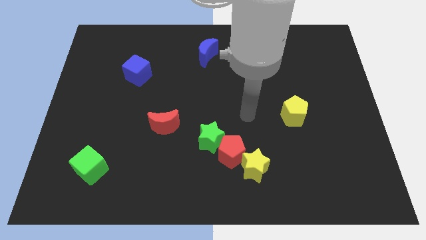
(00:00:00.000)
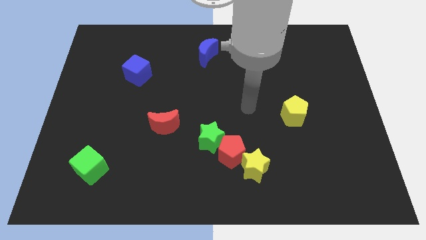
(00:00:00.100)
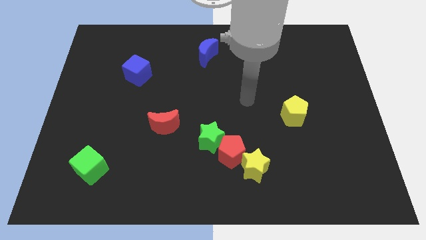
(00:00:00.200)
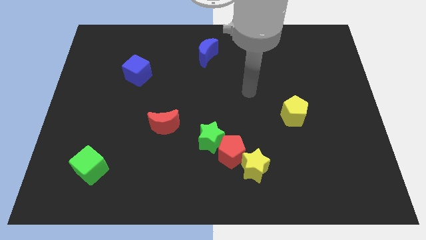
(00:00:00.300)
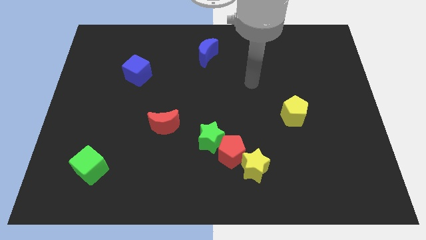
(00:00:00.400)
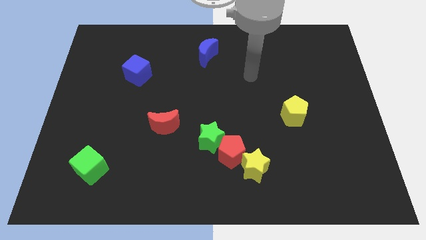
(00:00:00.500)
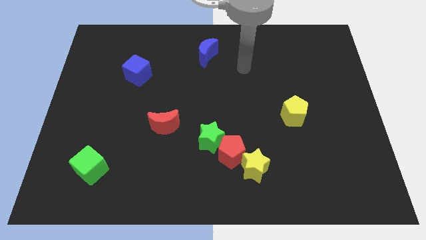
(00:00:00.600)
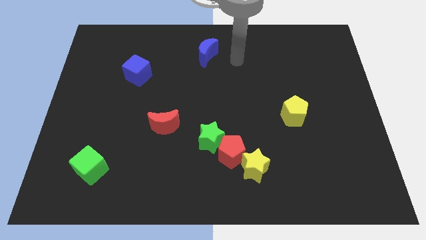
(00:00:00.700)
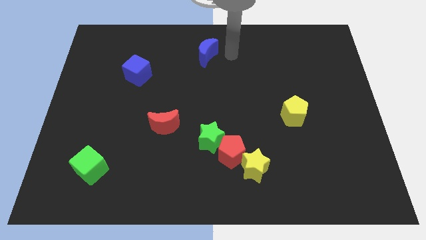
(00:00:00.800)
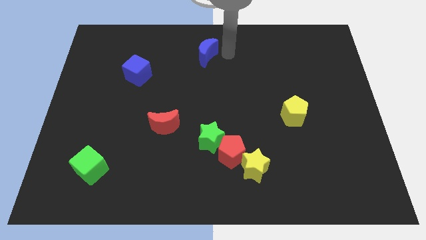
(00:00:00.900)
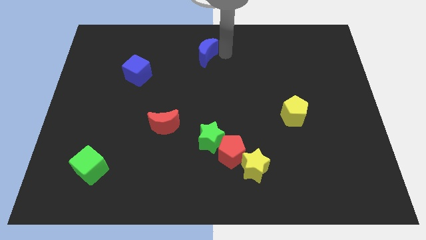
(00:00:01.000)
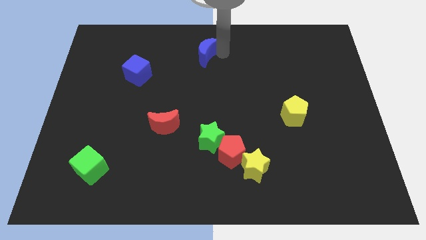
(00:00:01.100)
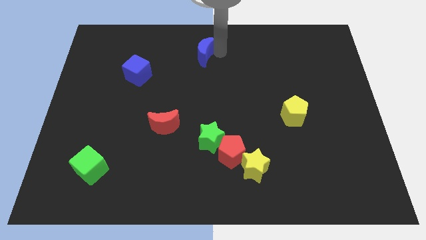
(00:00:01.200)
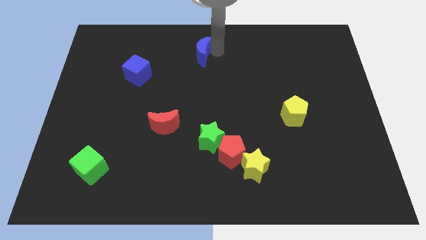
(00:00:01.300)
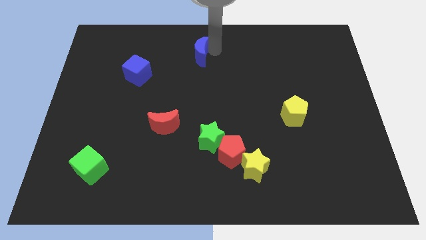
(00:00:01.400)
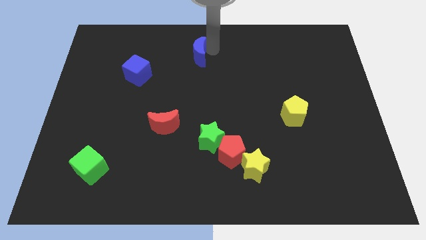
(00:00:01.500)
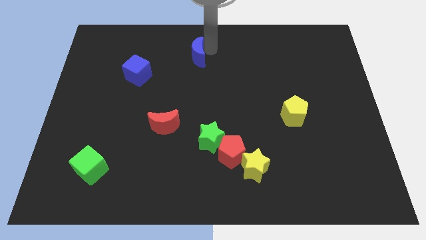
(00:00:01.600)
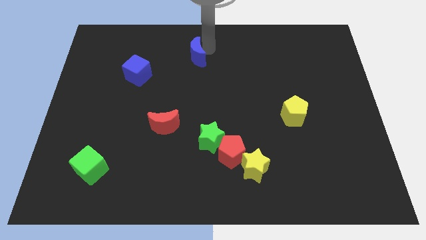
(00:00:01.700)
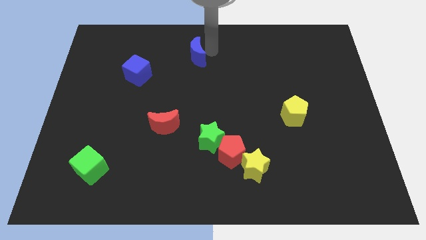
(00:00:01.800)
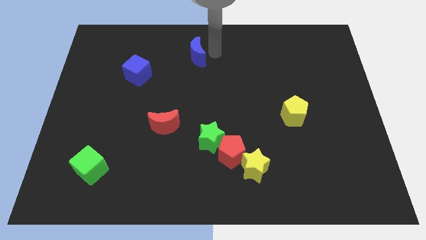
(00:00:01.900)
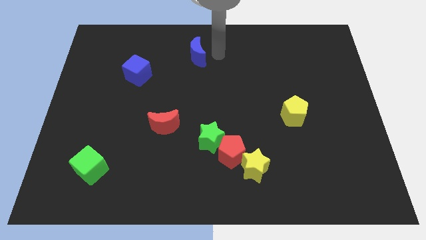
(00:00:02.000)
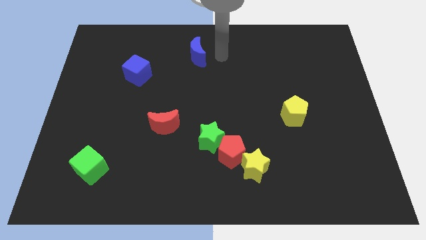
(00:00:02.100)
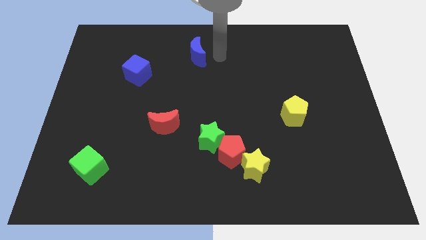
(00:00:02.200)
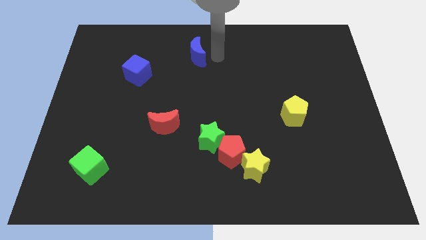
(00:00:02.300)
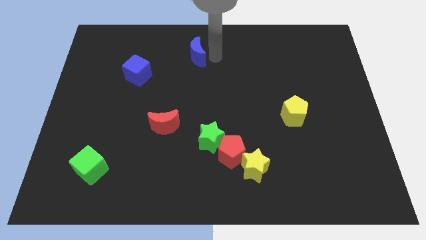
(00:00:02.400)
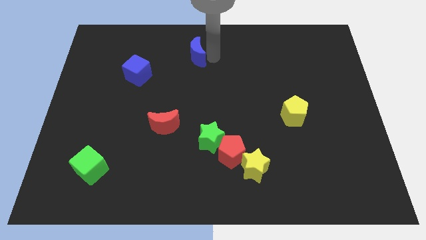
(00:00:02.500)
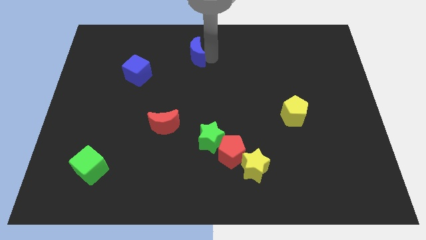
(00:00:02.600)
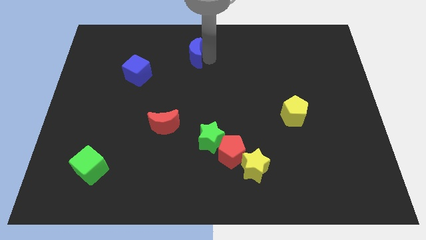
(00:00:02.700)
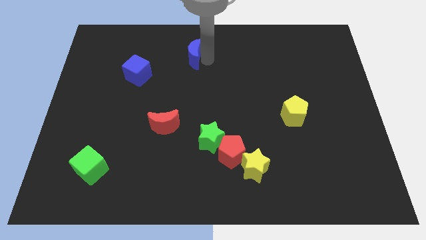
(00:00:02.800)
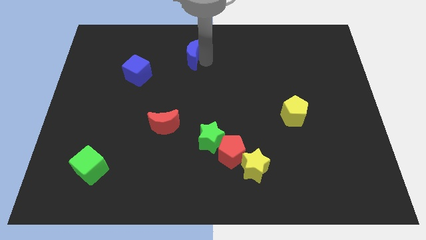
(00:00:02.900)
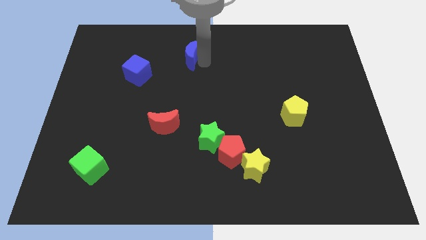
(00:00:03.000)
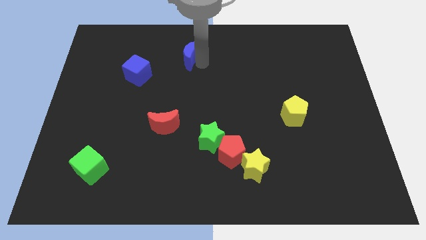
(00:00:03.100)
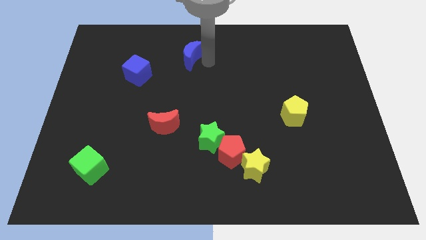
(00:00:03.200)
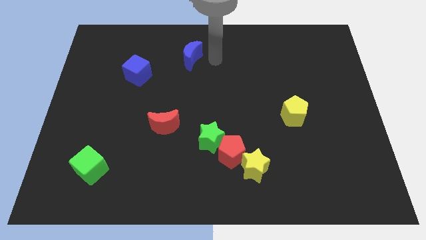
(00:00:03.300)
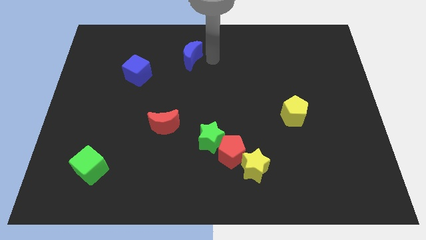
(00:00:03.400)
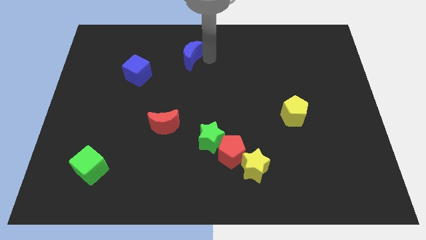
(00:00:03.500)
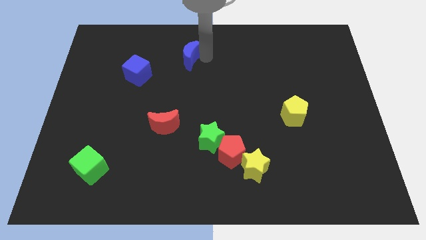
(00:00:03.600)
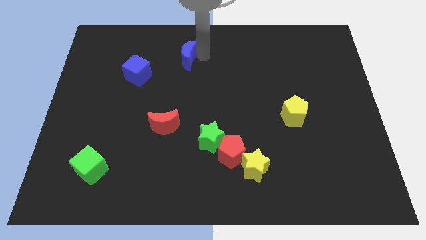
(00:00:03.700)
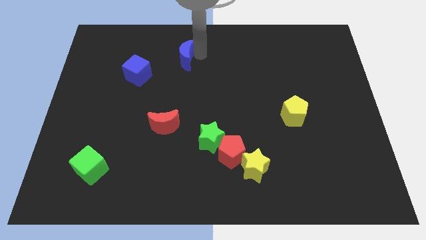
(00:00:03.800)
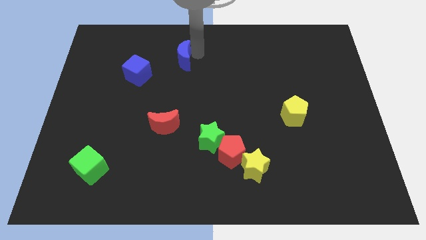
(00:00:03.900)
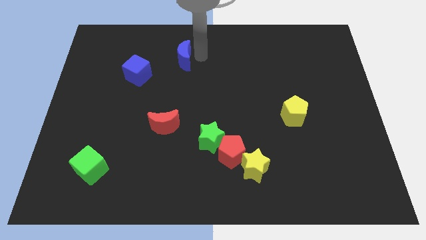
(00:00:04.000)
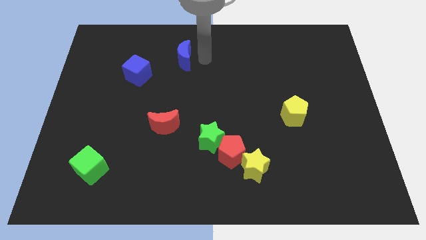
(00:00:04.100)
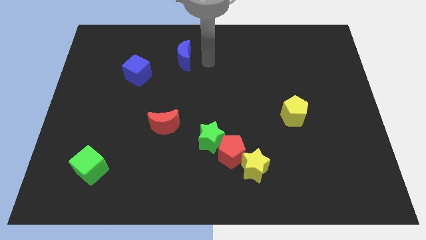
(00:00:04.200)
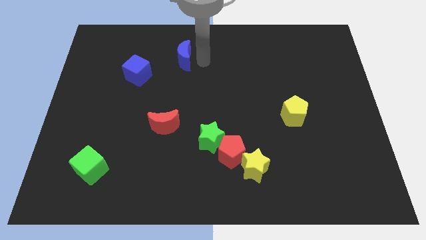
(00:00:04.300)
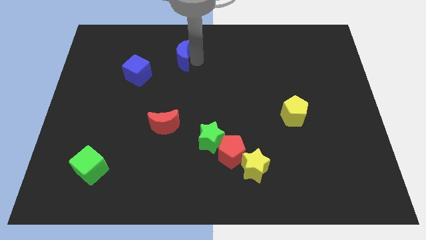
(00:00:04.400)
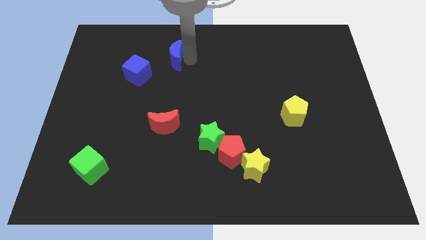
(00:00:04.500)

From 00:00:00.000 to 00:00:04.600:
push the blue moon a bit to the left

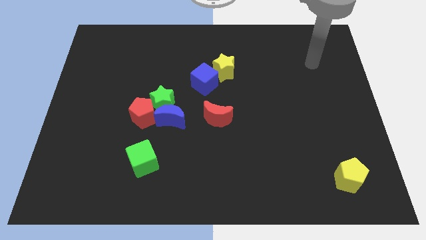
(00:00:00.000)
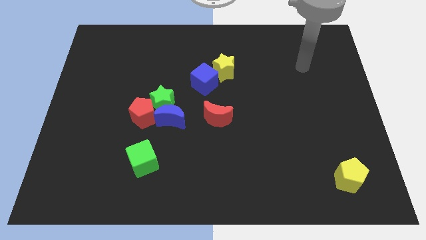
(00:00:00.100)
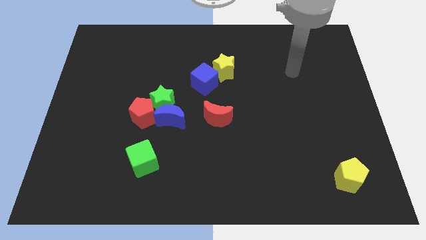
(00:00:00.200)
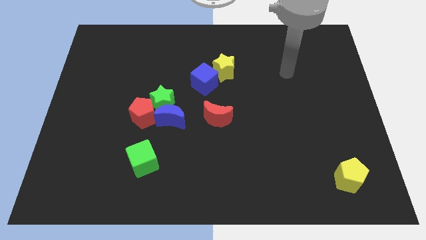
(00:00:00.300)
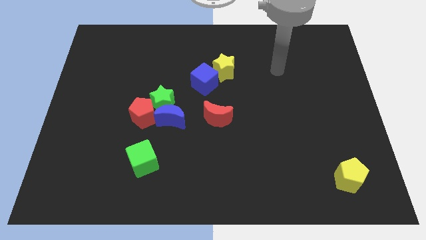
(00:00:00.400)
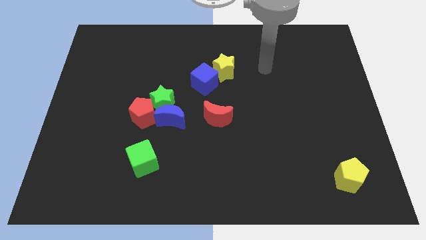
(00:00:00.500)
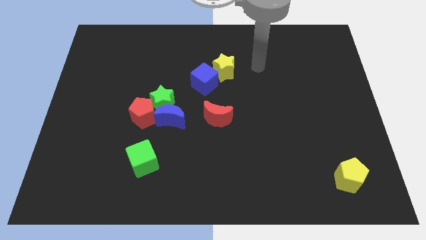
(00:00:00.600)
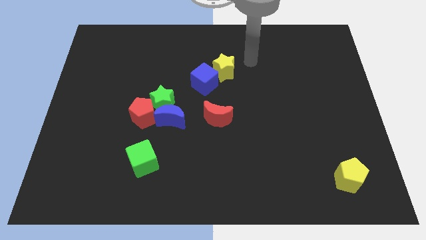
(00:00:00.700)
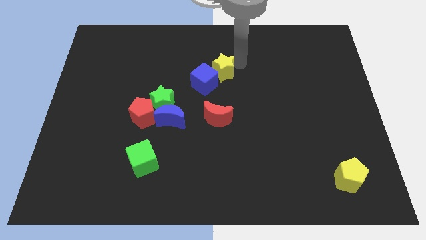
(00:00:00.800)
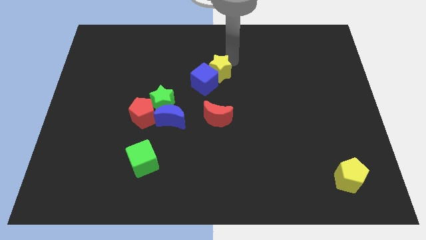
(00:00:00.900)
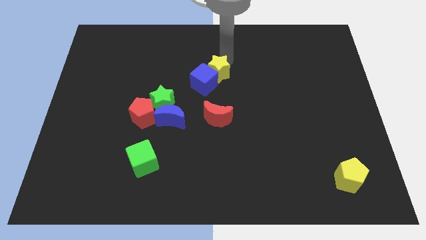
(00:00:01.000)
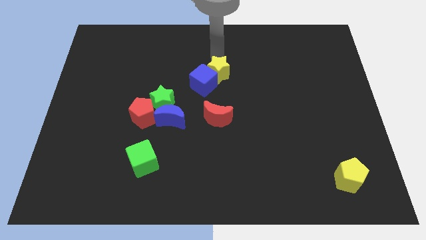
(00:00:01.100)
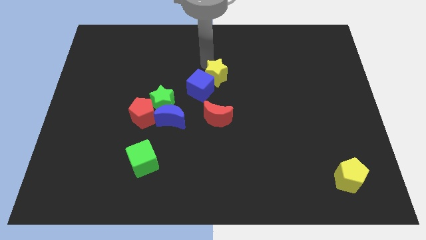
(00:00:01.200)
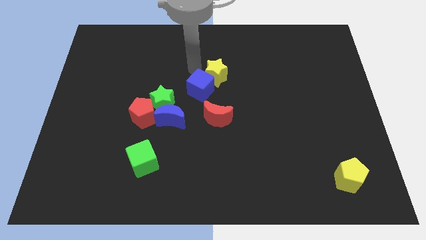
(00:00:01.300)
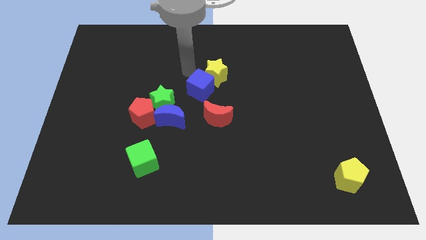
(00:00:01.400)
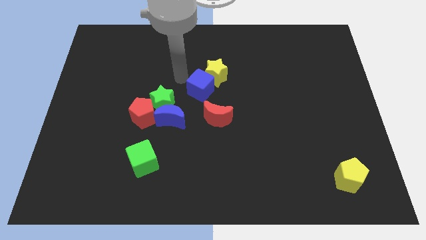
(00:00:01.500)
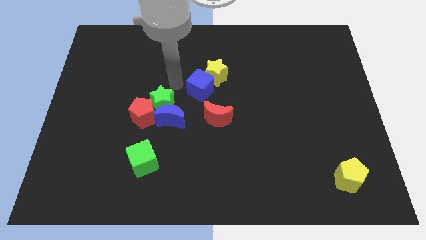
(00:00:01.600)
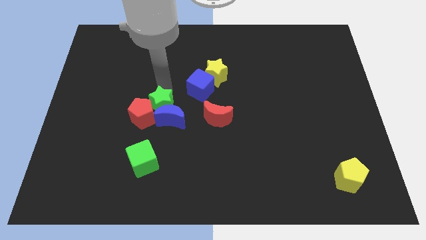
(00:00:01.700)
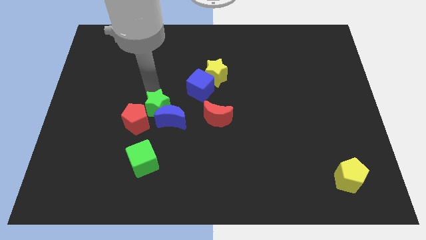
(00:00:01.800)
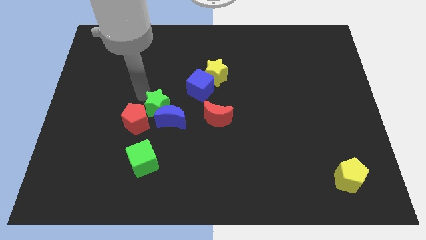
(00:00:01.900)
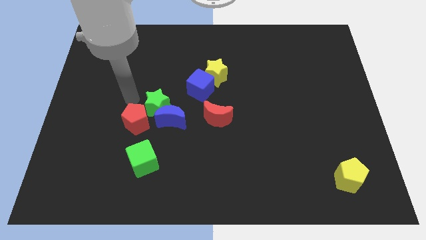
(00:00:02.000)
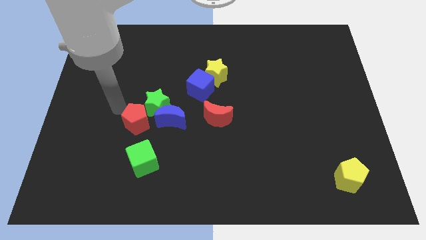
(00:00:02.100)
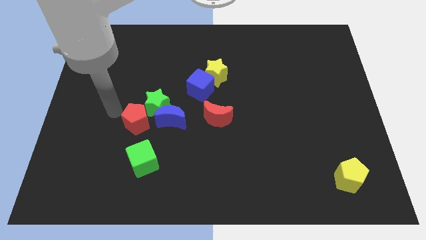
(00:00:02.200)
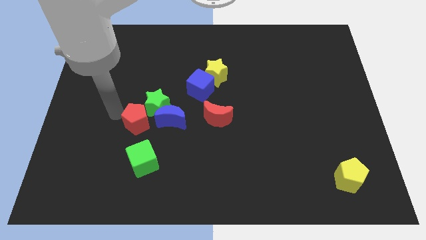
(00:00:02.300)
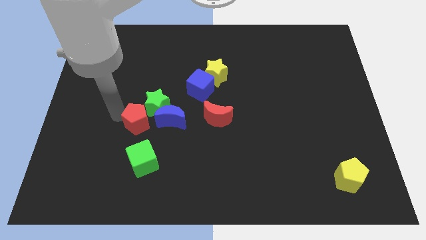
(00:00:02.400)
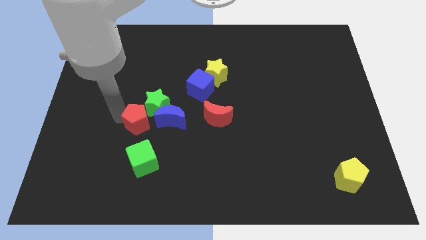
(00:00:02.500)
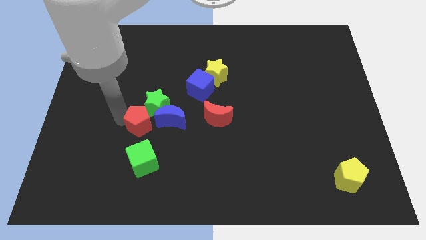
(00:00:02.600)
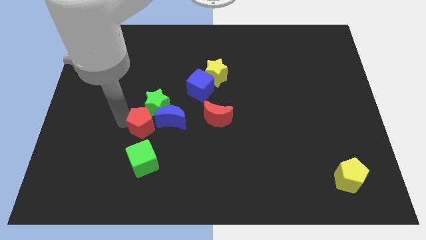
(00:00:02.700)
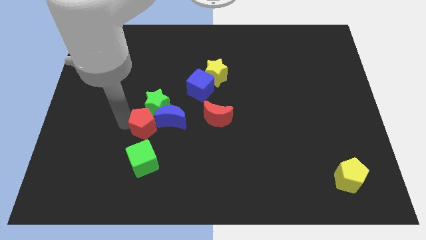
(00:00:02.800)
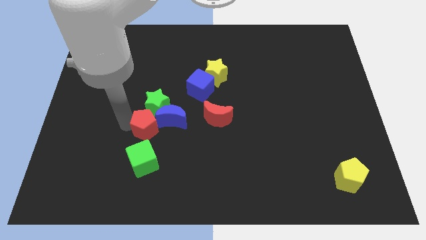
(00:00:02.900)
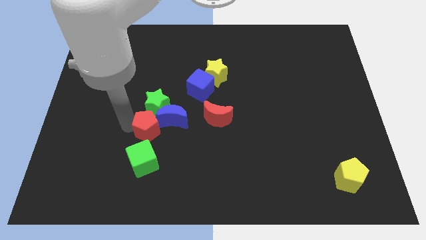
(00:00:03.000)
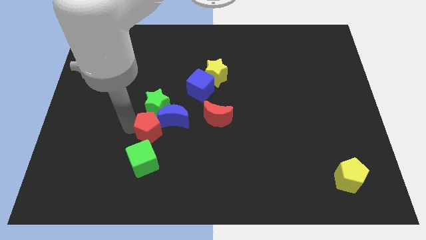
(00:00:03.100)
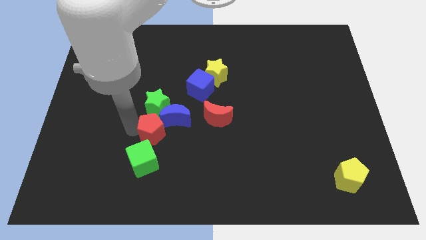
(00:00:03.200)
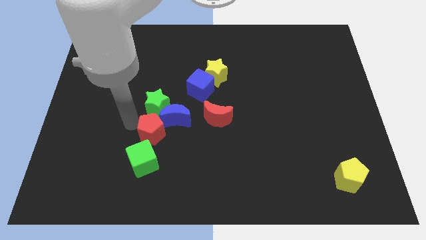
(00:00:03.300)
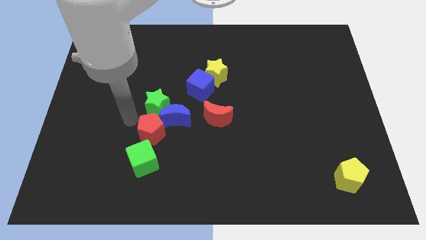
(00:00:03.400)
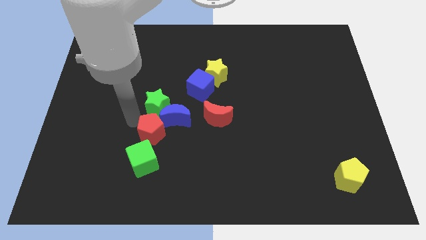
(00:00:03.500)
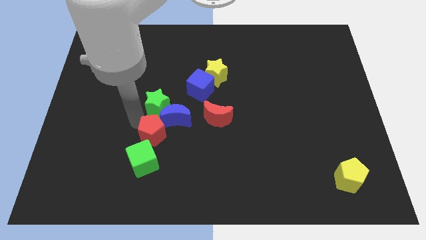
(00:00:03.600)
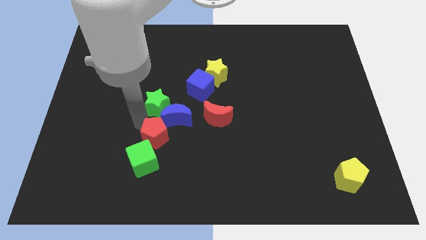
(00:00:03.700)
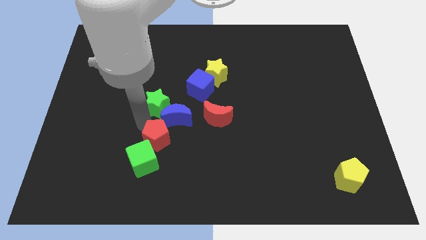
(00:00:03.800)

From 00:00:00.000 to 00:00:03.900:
slightly slide the red pentagon downwards and to the right diagonally
